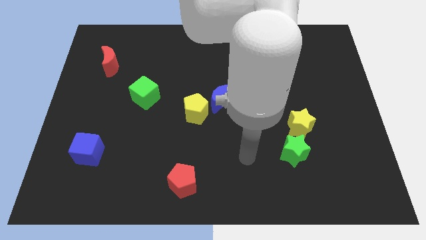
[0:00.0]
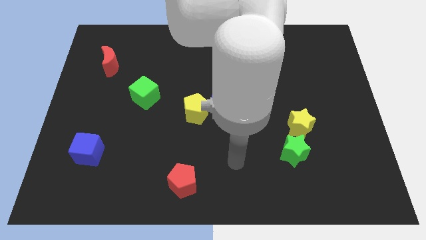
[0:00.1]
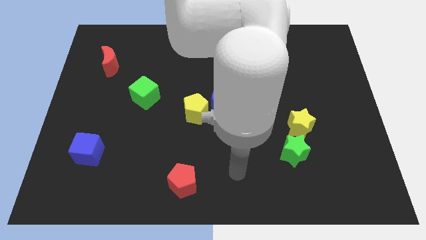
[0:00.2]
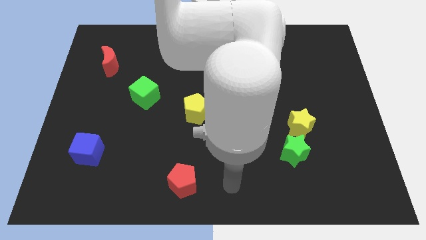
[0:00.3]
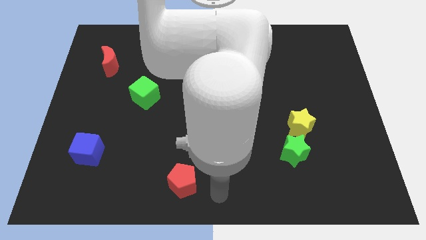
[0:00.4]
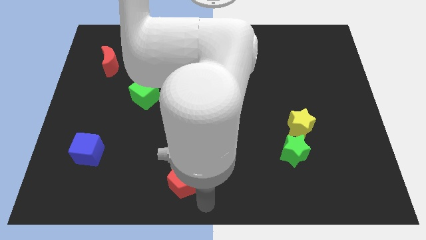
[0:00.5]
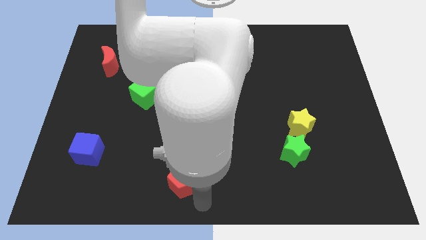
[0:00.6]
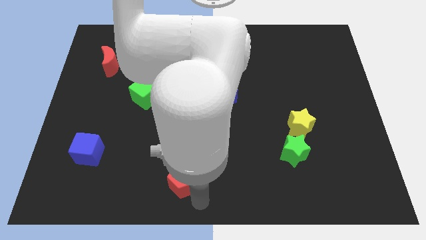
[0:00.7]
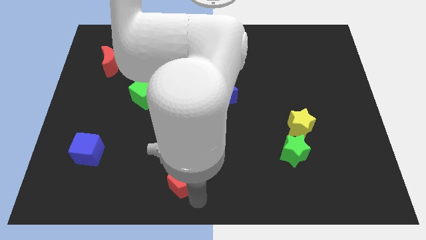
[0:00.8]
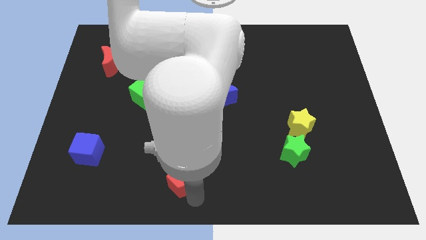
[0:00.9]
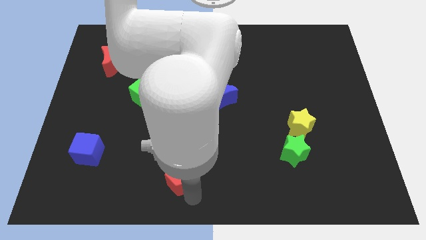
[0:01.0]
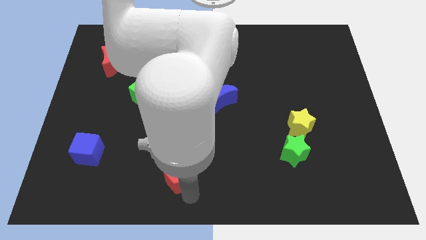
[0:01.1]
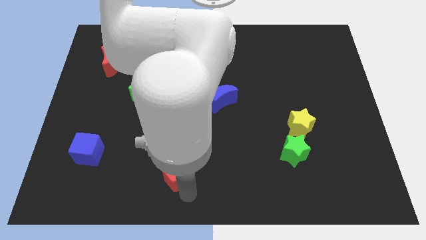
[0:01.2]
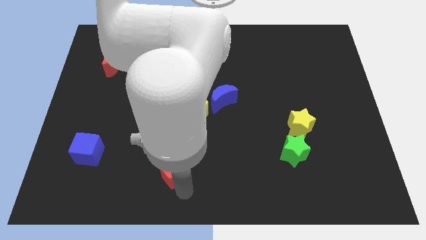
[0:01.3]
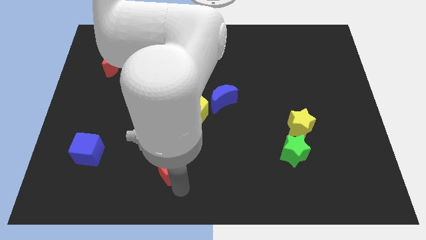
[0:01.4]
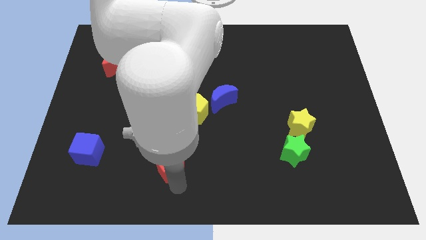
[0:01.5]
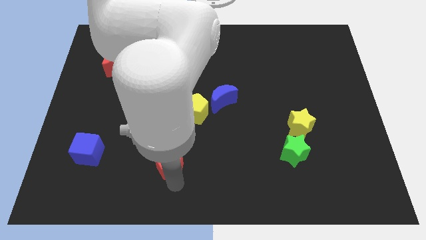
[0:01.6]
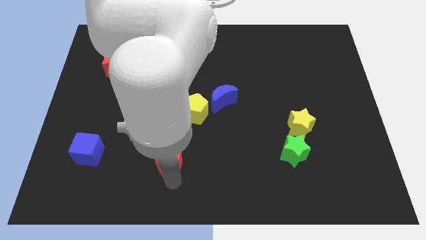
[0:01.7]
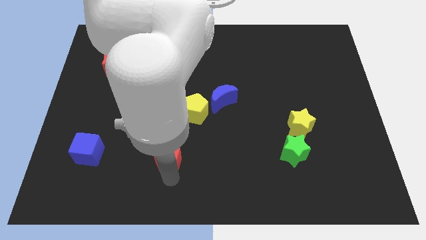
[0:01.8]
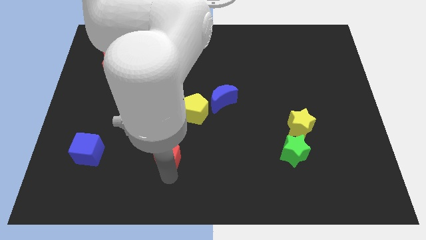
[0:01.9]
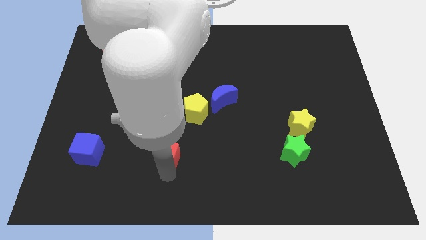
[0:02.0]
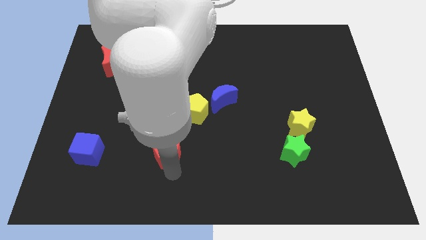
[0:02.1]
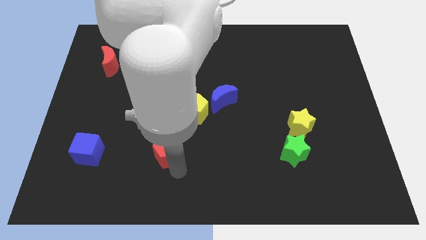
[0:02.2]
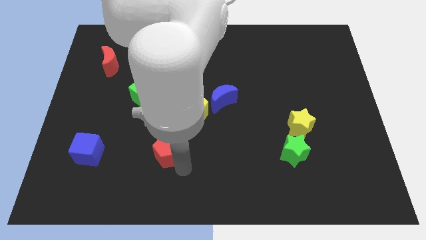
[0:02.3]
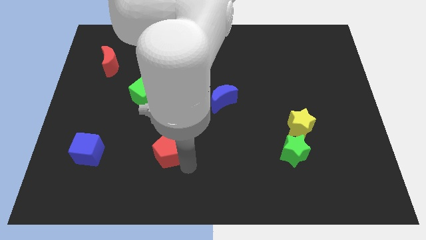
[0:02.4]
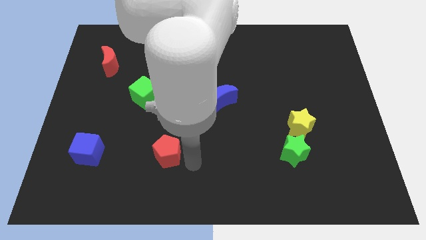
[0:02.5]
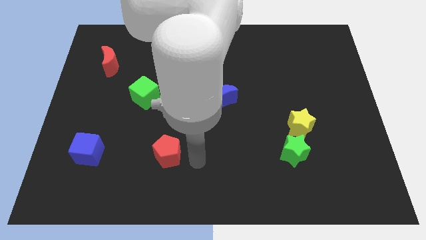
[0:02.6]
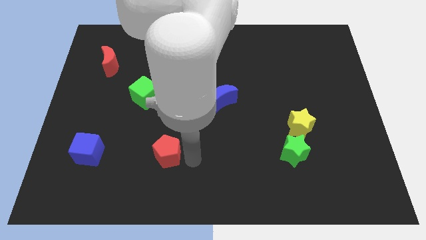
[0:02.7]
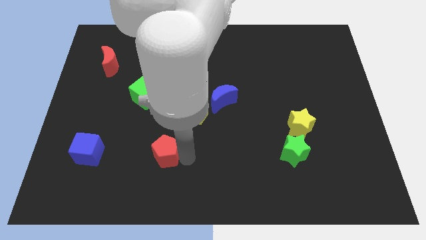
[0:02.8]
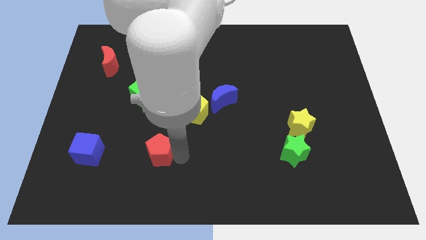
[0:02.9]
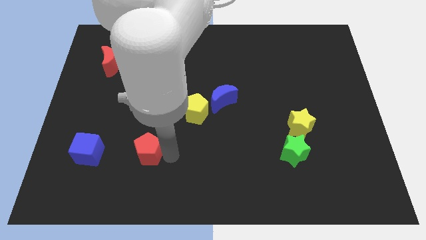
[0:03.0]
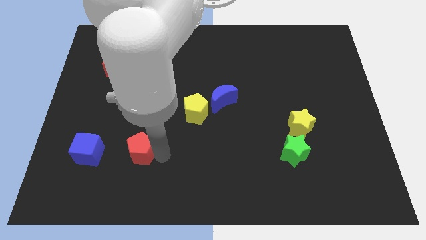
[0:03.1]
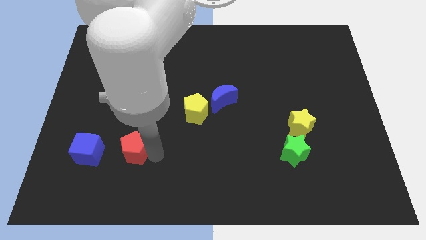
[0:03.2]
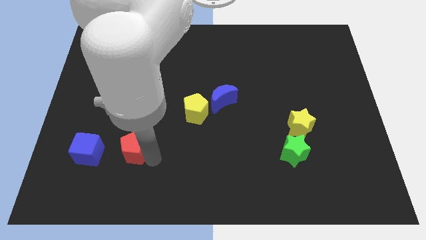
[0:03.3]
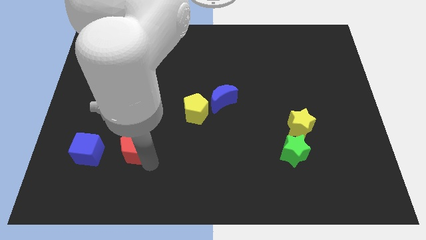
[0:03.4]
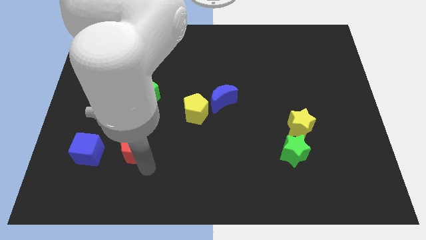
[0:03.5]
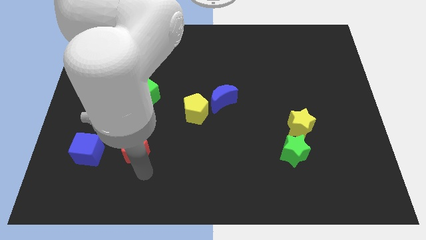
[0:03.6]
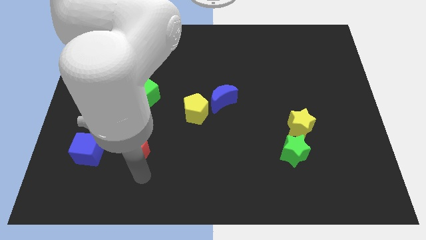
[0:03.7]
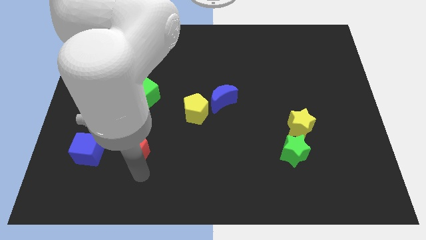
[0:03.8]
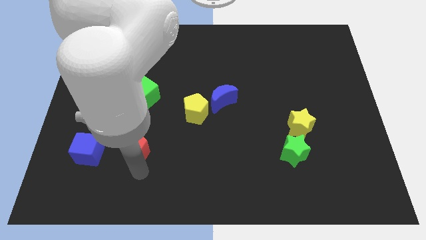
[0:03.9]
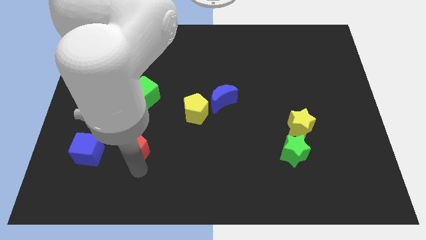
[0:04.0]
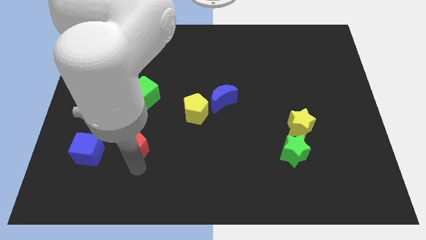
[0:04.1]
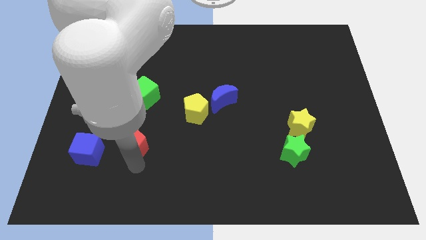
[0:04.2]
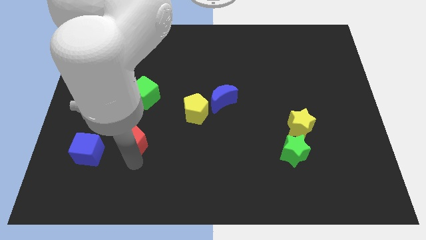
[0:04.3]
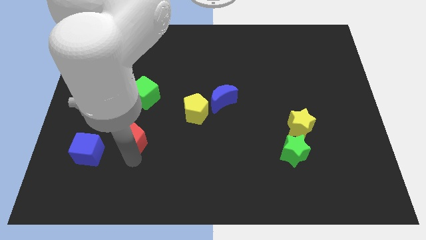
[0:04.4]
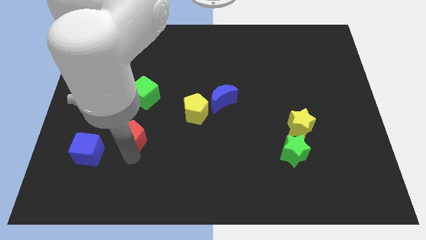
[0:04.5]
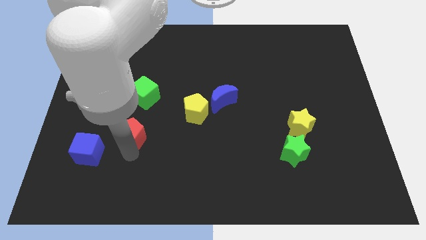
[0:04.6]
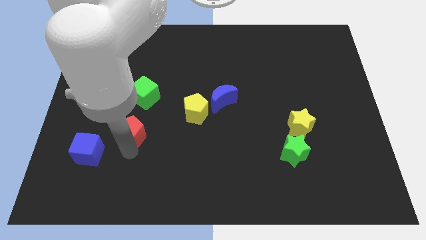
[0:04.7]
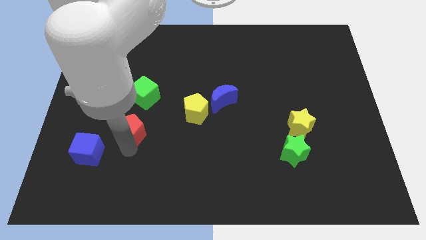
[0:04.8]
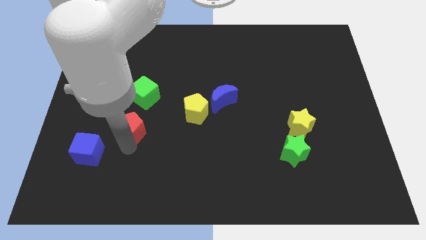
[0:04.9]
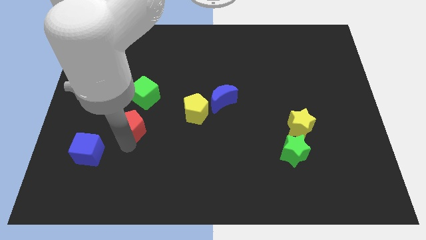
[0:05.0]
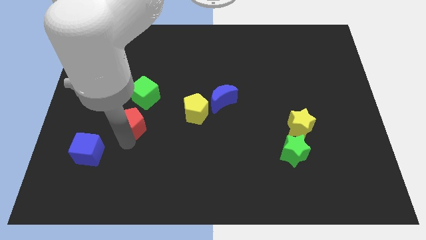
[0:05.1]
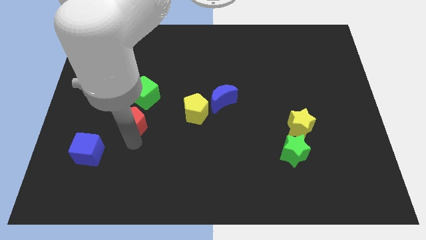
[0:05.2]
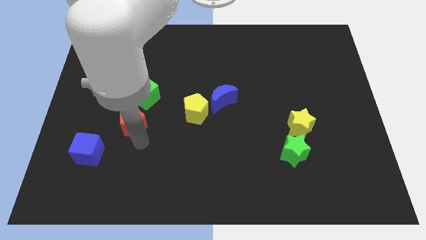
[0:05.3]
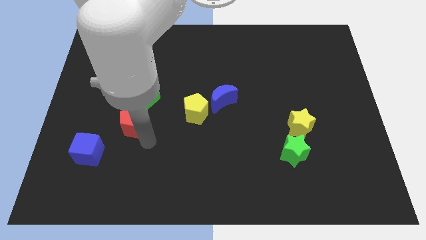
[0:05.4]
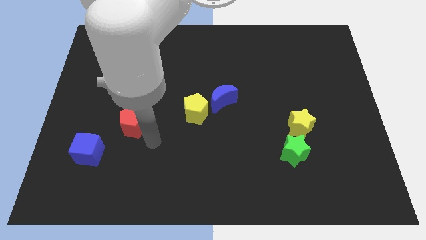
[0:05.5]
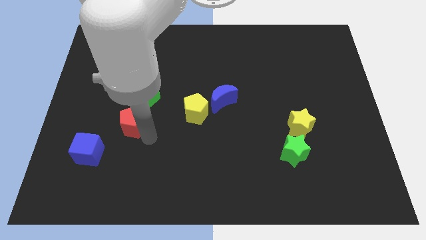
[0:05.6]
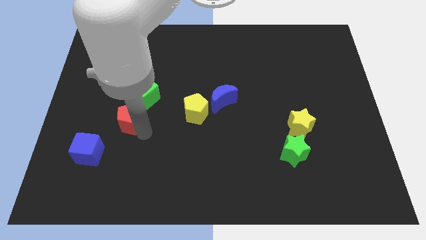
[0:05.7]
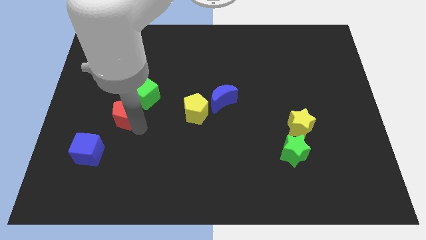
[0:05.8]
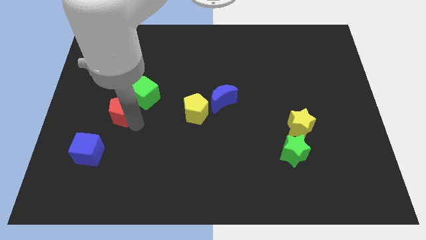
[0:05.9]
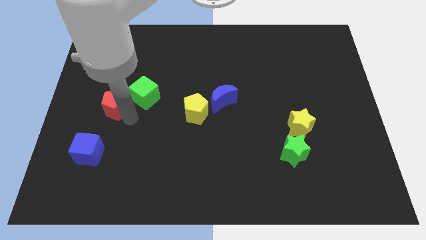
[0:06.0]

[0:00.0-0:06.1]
slide the red pentagon to the bottom of the red moon

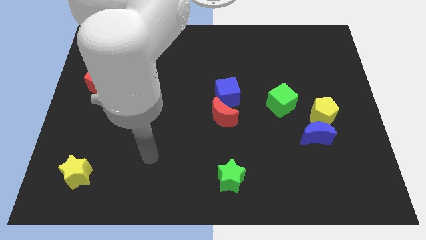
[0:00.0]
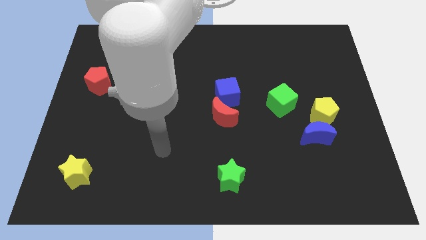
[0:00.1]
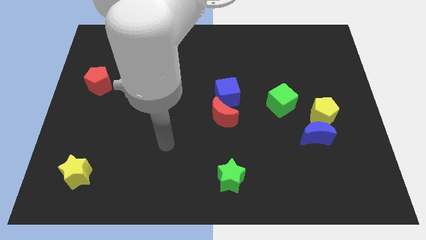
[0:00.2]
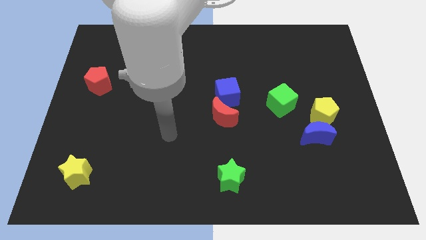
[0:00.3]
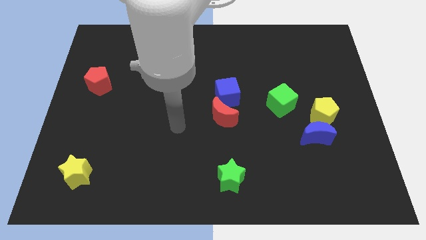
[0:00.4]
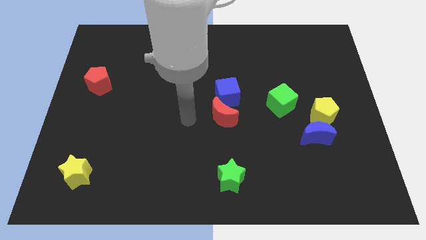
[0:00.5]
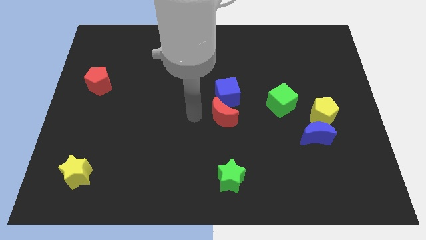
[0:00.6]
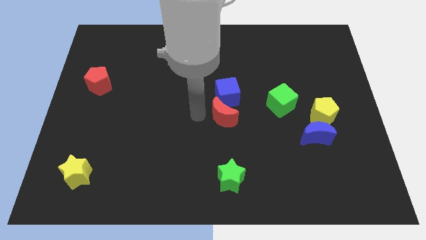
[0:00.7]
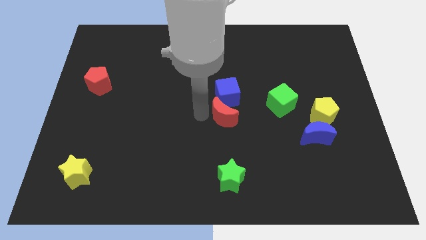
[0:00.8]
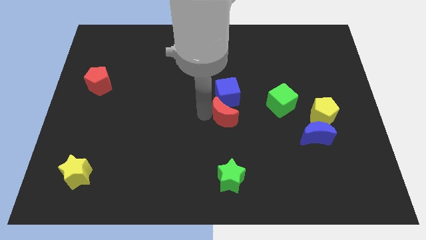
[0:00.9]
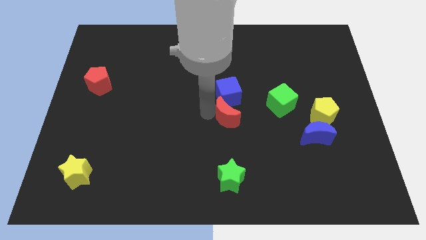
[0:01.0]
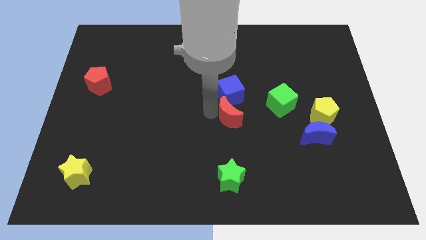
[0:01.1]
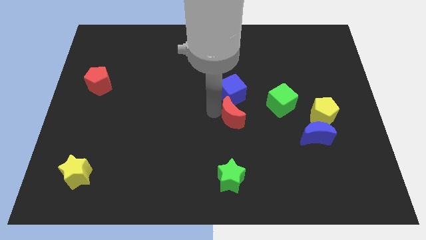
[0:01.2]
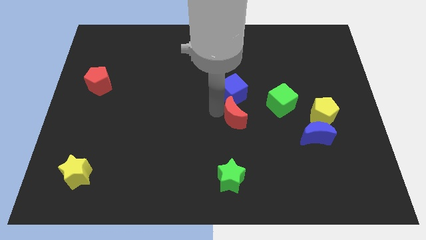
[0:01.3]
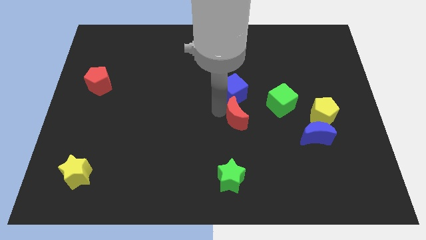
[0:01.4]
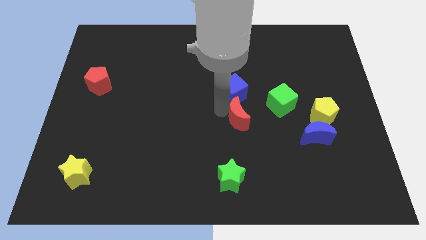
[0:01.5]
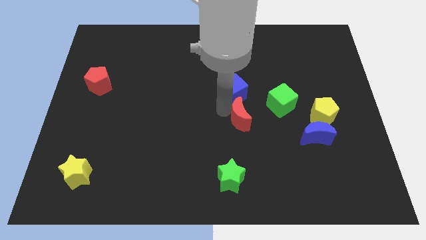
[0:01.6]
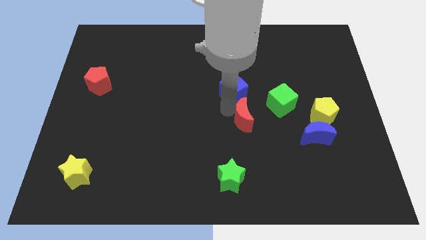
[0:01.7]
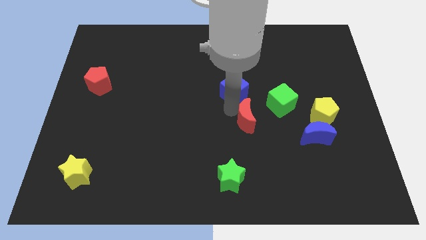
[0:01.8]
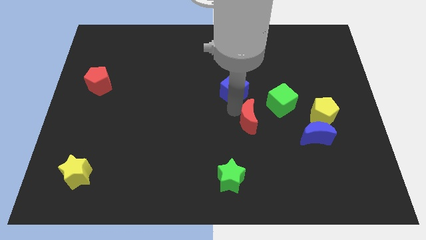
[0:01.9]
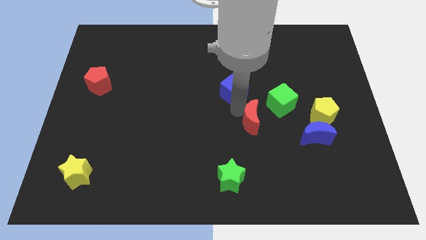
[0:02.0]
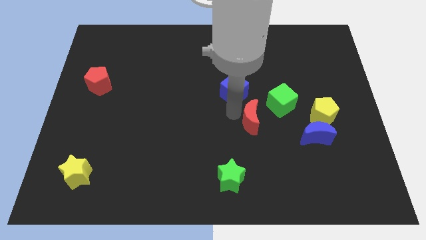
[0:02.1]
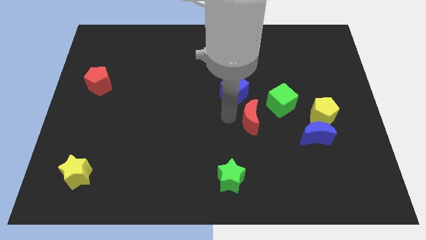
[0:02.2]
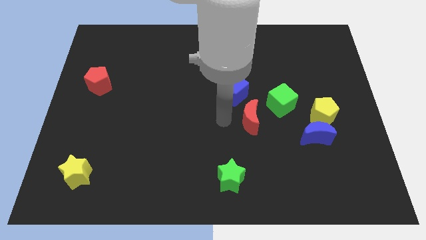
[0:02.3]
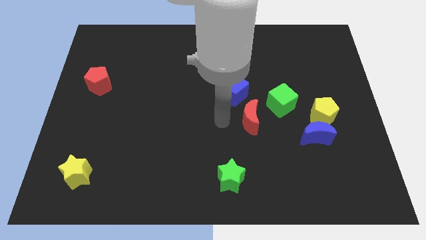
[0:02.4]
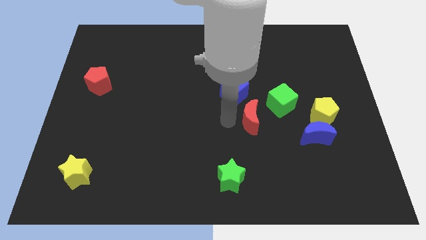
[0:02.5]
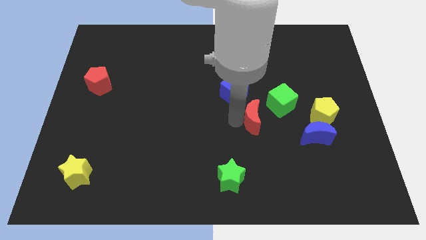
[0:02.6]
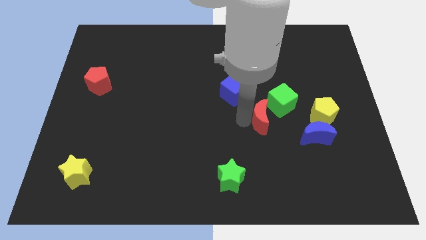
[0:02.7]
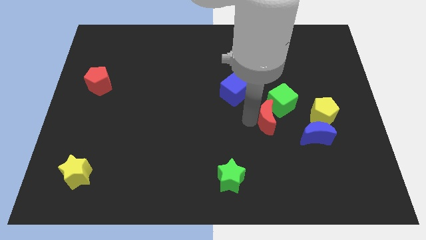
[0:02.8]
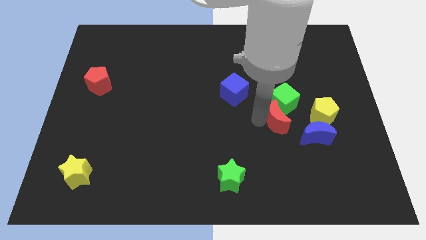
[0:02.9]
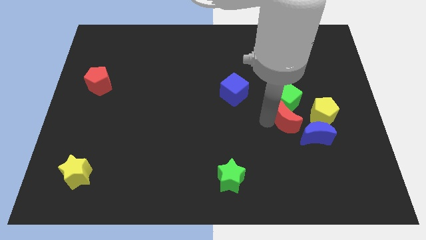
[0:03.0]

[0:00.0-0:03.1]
put the red moon to the bottom right side of the green cube
